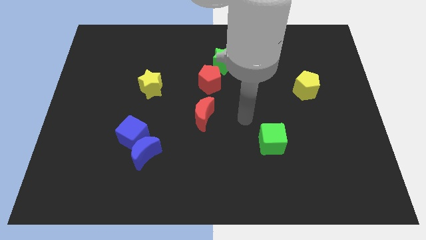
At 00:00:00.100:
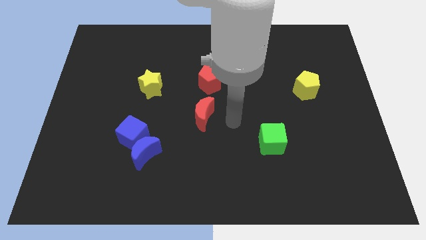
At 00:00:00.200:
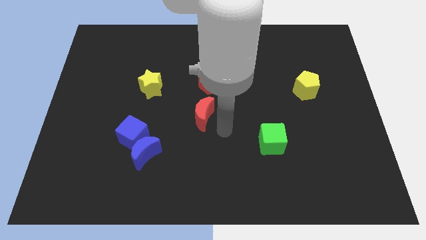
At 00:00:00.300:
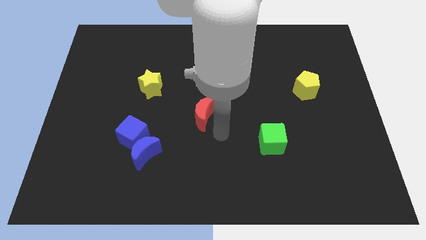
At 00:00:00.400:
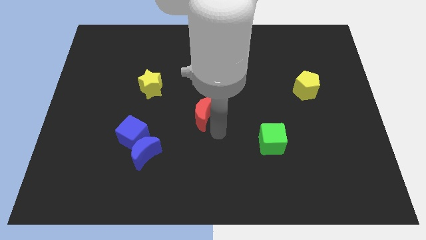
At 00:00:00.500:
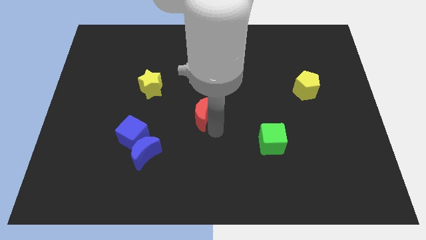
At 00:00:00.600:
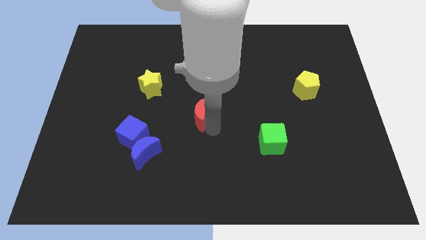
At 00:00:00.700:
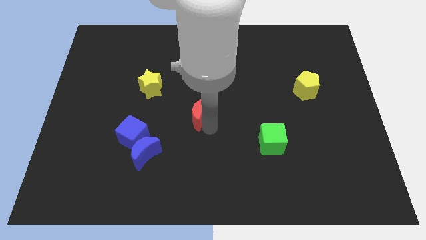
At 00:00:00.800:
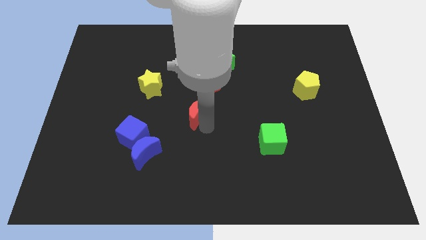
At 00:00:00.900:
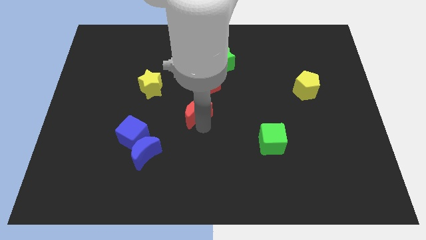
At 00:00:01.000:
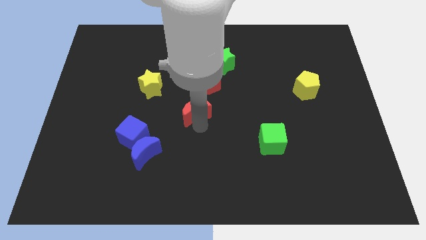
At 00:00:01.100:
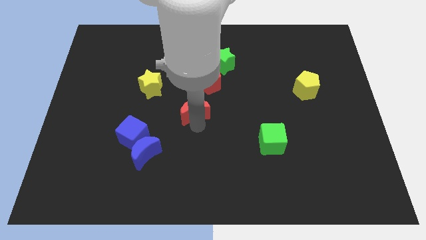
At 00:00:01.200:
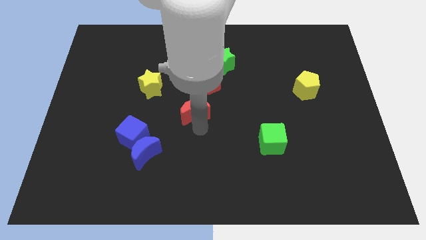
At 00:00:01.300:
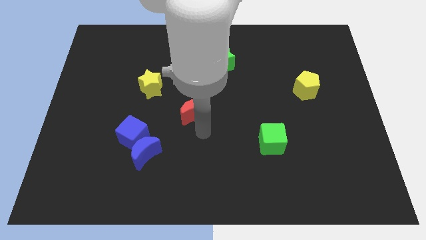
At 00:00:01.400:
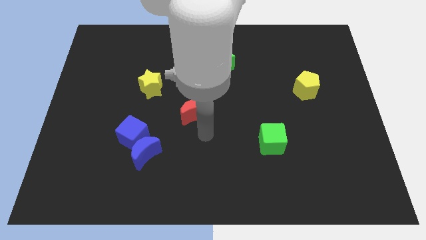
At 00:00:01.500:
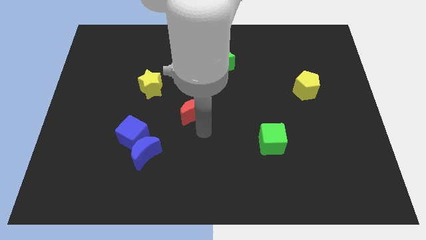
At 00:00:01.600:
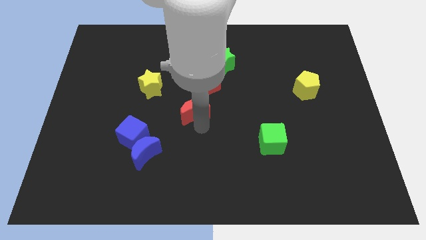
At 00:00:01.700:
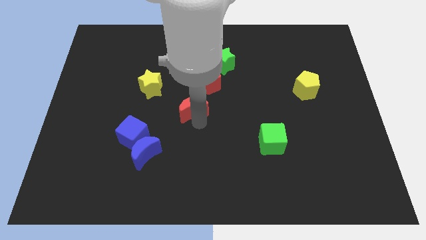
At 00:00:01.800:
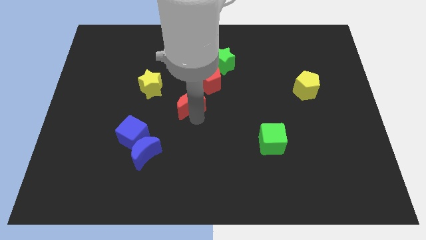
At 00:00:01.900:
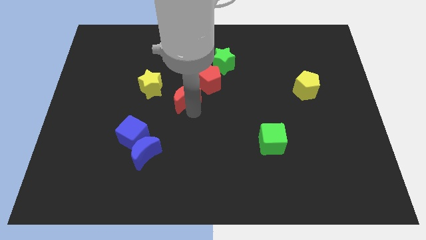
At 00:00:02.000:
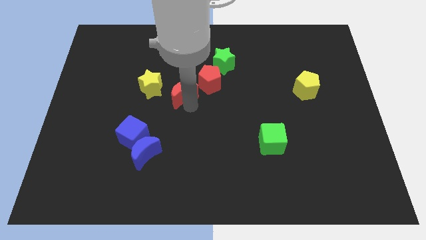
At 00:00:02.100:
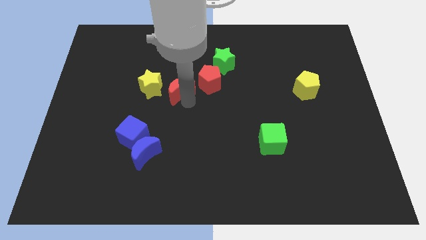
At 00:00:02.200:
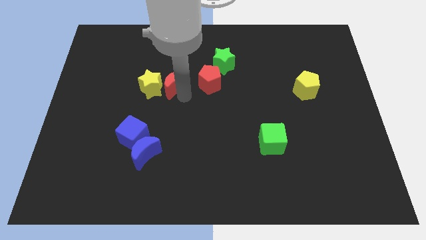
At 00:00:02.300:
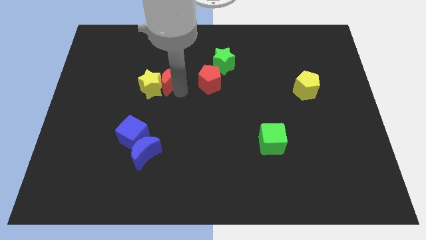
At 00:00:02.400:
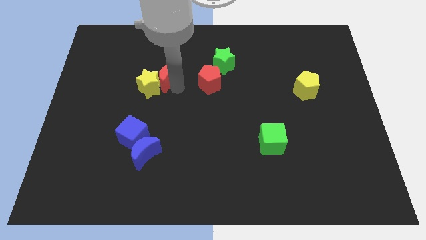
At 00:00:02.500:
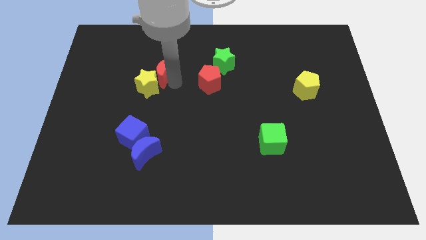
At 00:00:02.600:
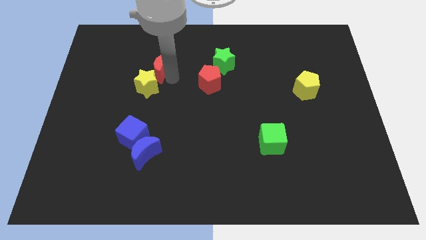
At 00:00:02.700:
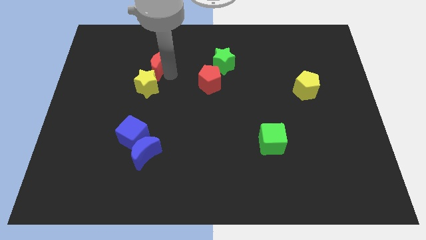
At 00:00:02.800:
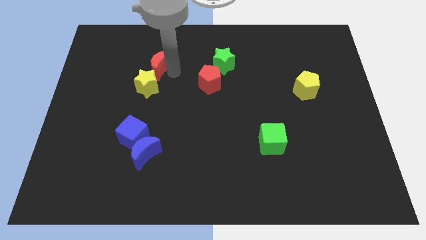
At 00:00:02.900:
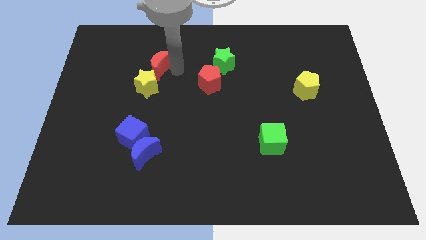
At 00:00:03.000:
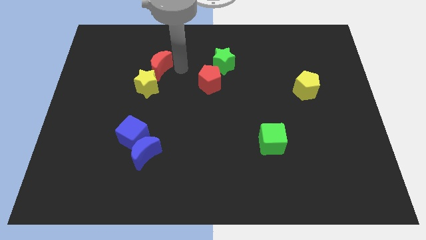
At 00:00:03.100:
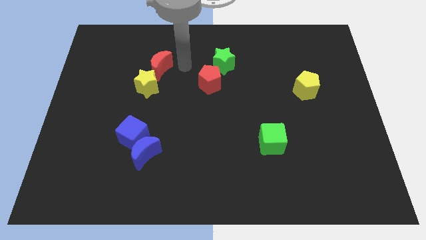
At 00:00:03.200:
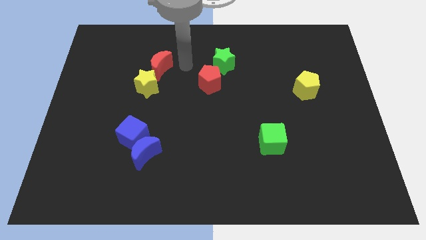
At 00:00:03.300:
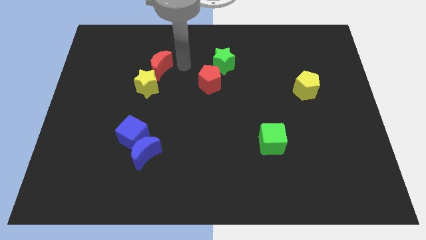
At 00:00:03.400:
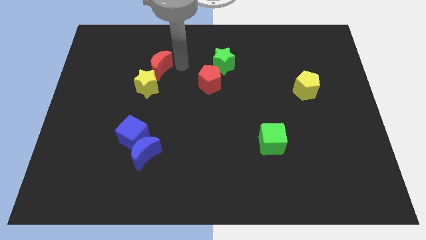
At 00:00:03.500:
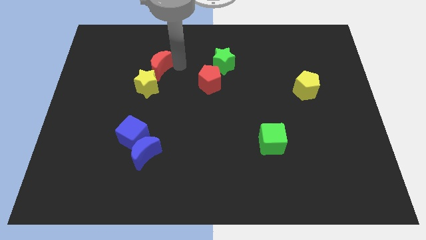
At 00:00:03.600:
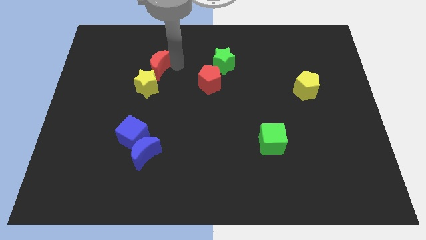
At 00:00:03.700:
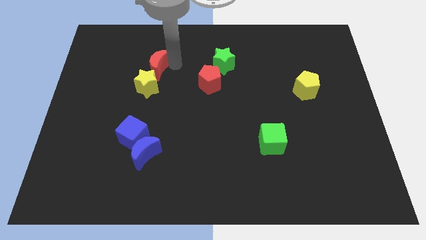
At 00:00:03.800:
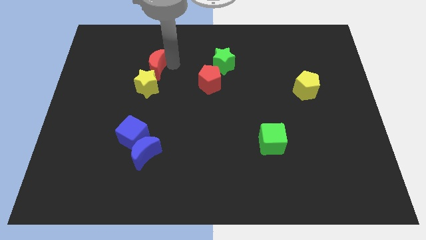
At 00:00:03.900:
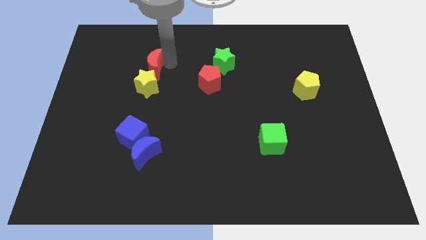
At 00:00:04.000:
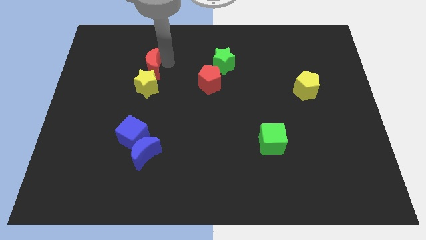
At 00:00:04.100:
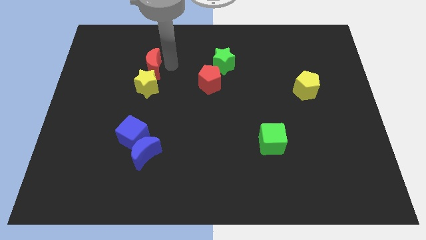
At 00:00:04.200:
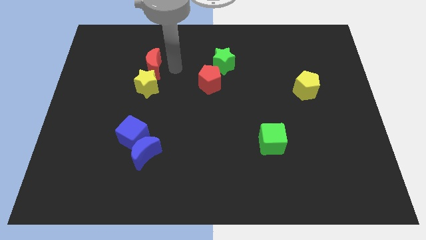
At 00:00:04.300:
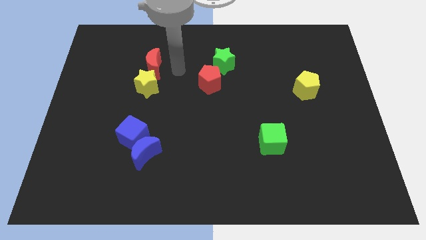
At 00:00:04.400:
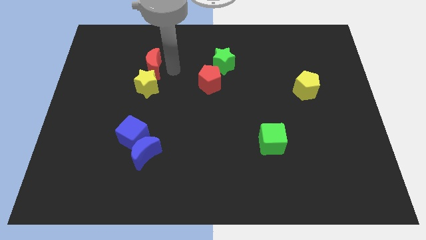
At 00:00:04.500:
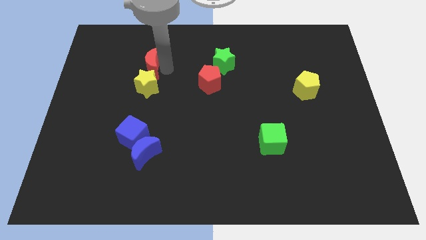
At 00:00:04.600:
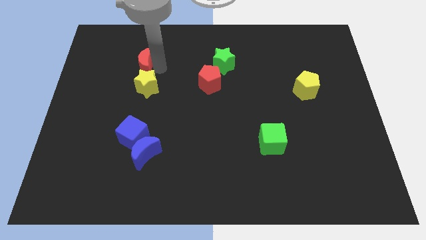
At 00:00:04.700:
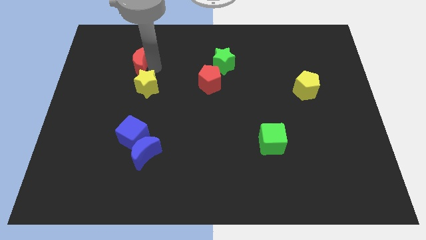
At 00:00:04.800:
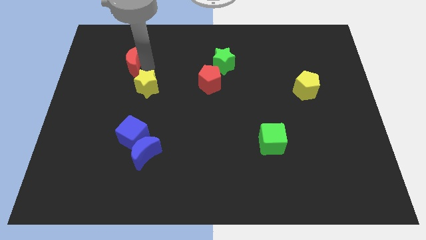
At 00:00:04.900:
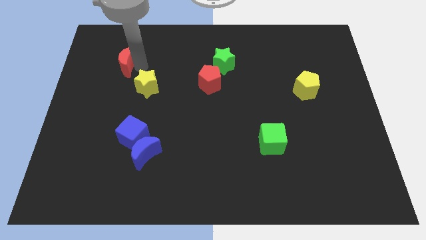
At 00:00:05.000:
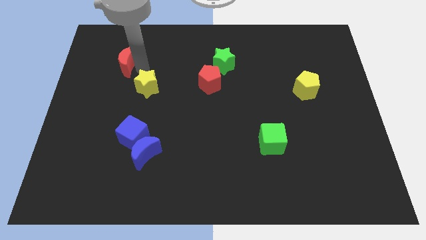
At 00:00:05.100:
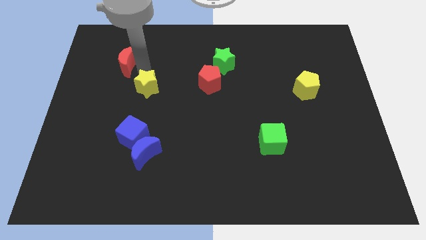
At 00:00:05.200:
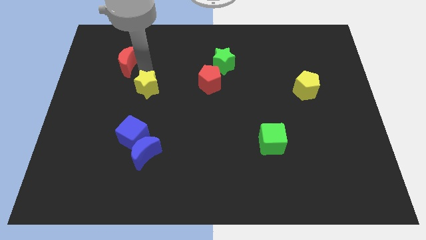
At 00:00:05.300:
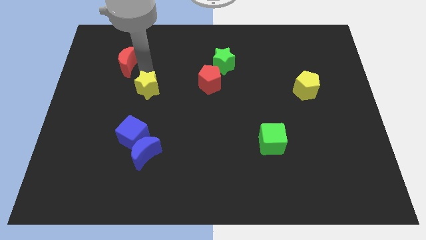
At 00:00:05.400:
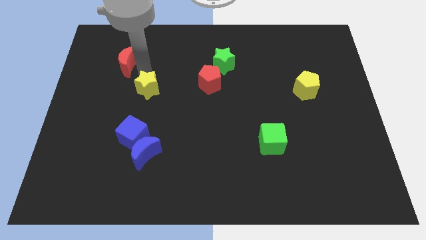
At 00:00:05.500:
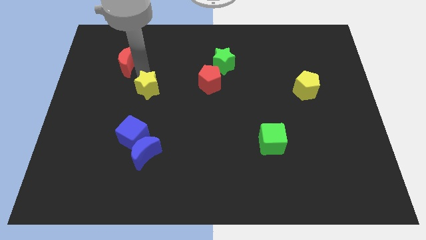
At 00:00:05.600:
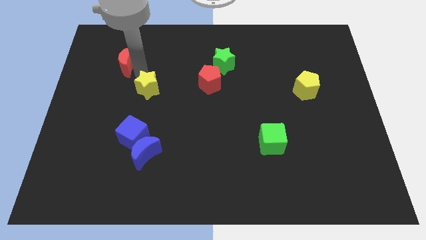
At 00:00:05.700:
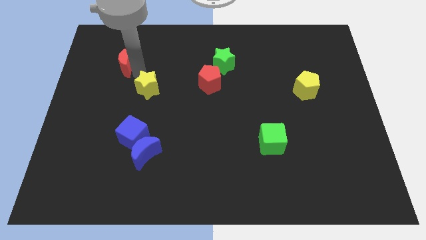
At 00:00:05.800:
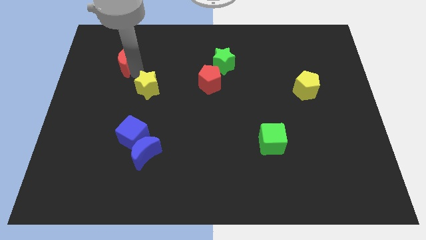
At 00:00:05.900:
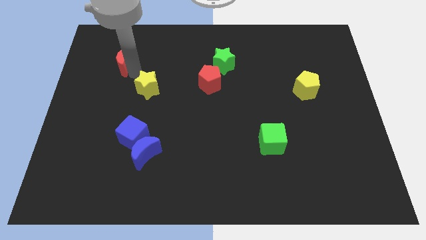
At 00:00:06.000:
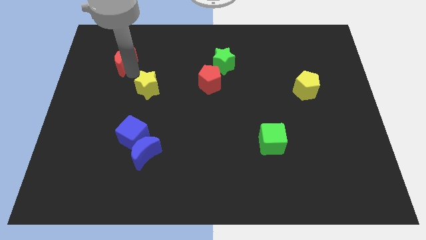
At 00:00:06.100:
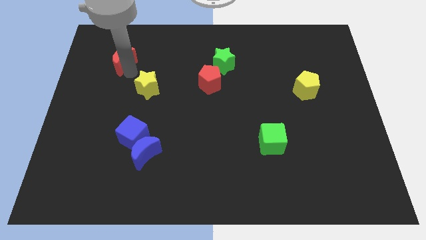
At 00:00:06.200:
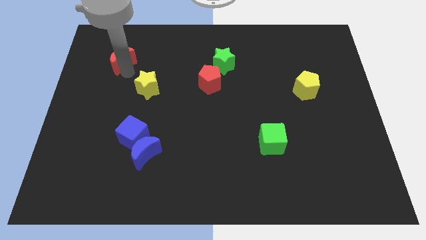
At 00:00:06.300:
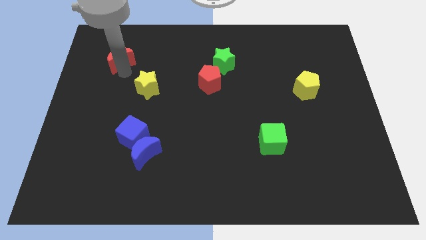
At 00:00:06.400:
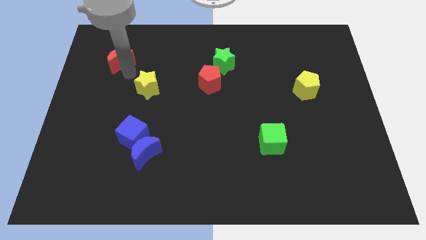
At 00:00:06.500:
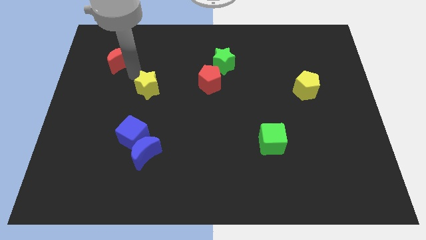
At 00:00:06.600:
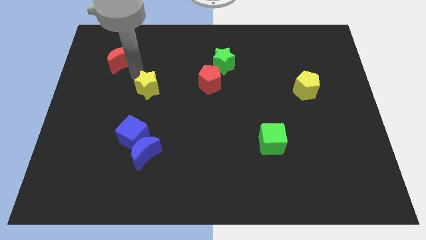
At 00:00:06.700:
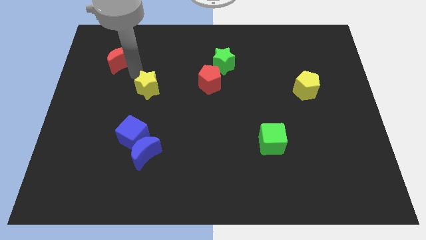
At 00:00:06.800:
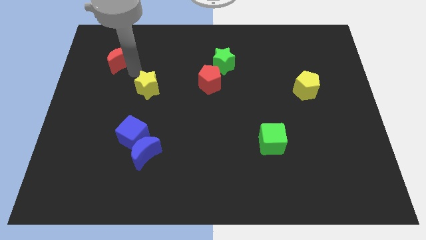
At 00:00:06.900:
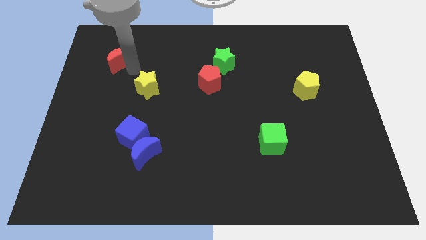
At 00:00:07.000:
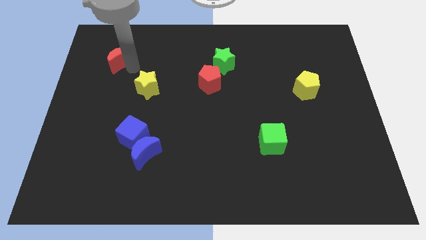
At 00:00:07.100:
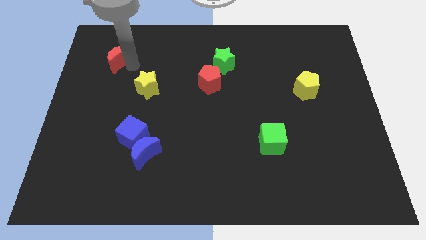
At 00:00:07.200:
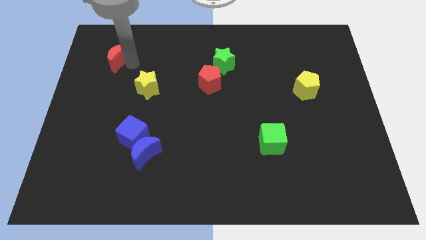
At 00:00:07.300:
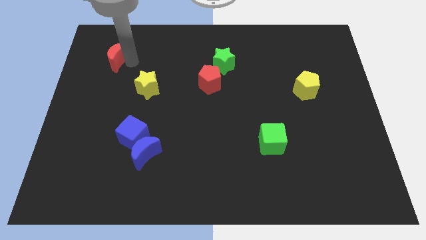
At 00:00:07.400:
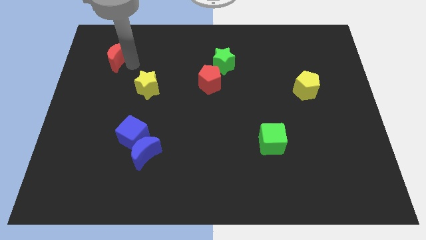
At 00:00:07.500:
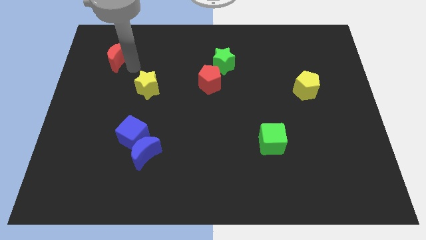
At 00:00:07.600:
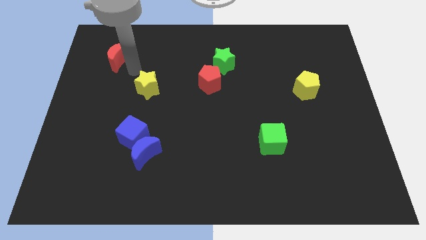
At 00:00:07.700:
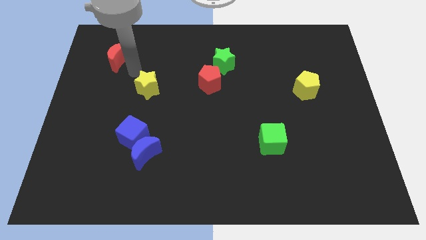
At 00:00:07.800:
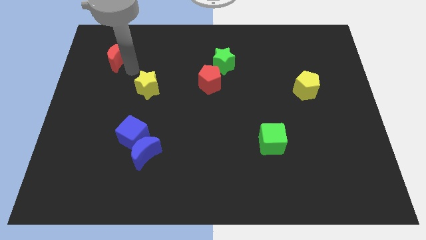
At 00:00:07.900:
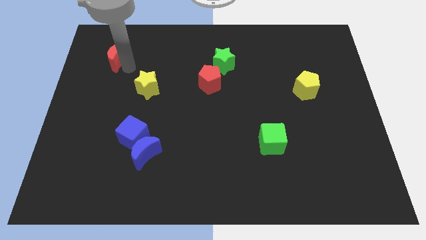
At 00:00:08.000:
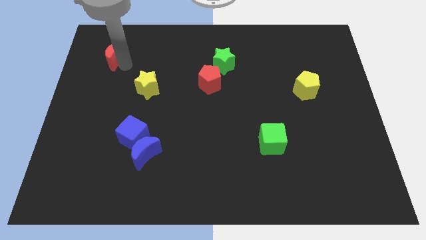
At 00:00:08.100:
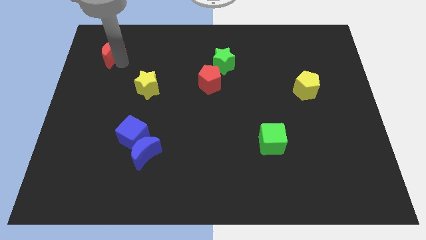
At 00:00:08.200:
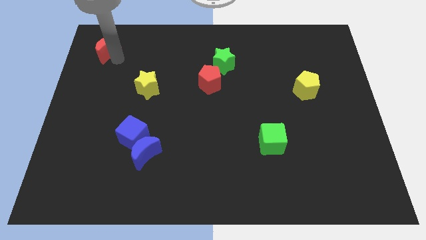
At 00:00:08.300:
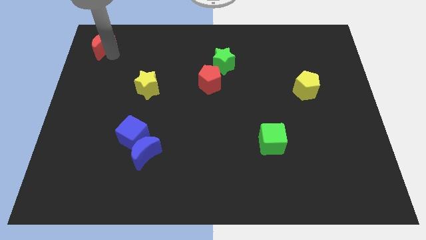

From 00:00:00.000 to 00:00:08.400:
push the red moon to the upper left corner
